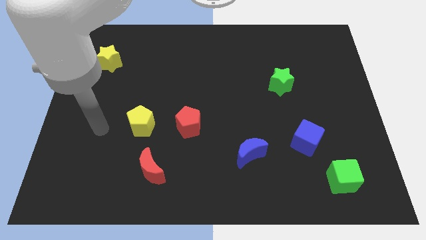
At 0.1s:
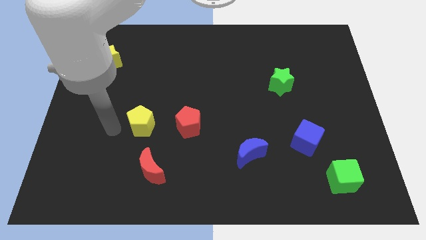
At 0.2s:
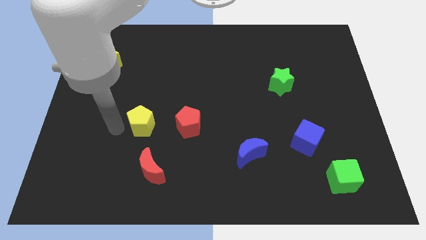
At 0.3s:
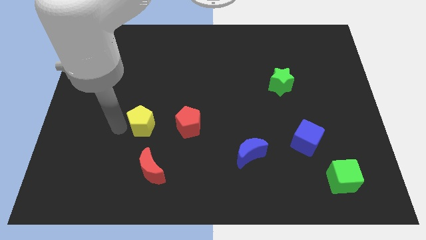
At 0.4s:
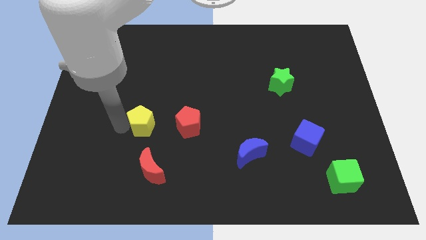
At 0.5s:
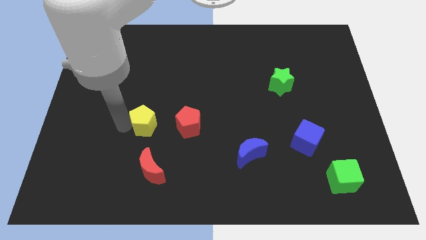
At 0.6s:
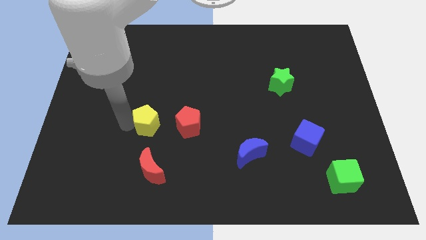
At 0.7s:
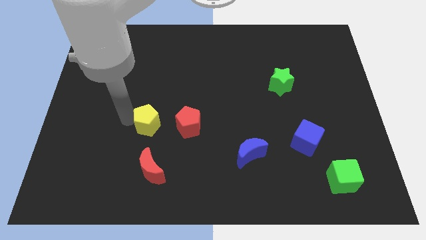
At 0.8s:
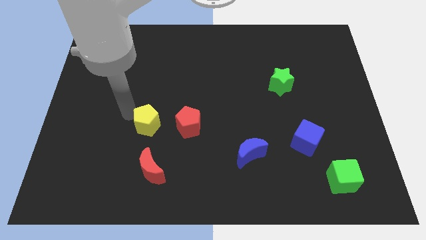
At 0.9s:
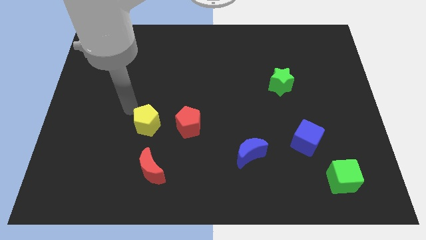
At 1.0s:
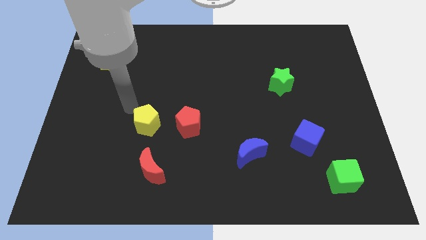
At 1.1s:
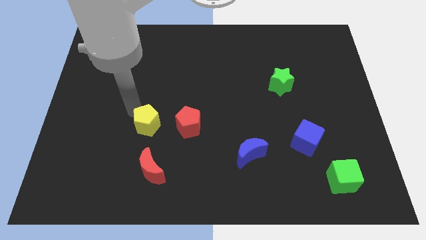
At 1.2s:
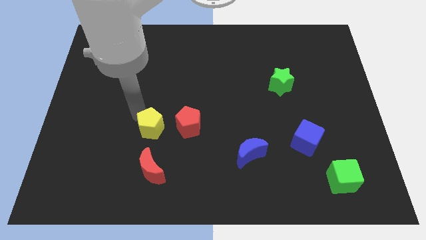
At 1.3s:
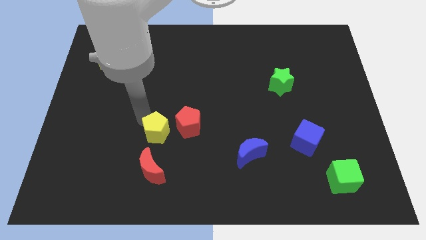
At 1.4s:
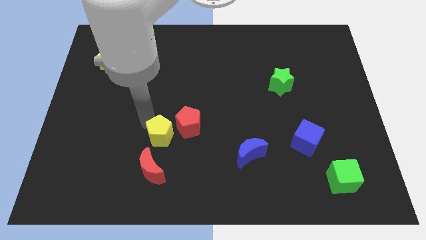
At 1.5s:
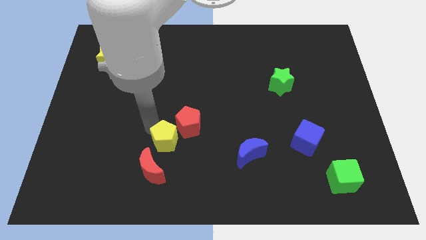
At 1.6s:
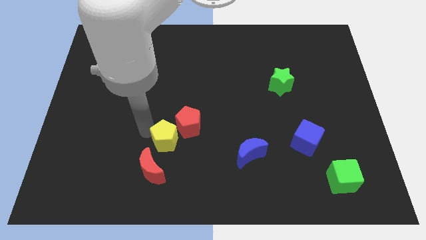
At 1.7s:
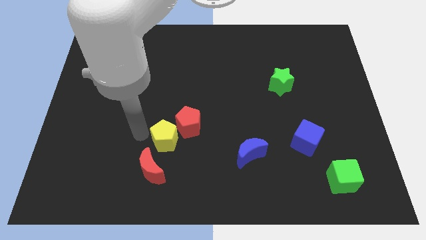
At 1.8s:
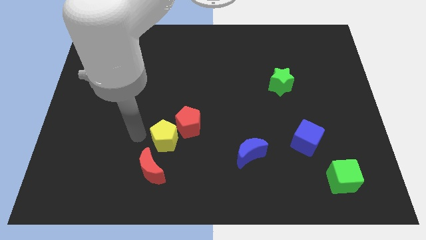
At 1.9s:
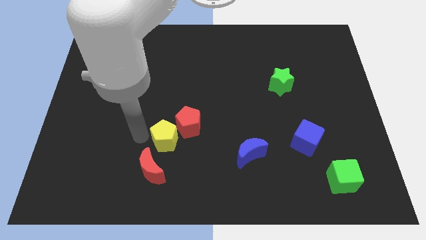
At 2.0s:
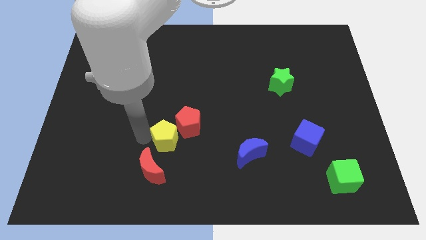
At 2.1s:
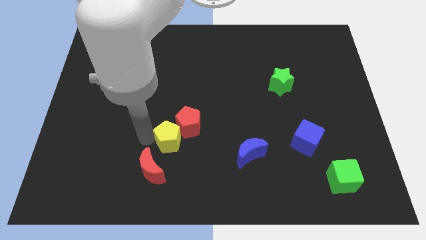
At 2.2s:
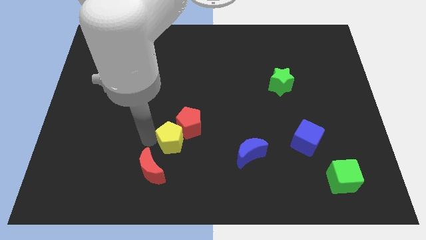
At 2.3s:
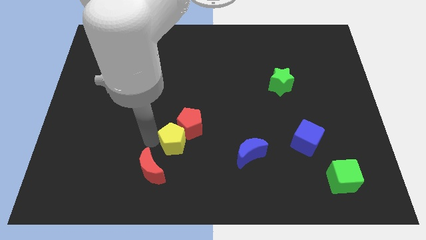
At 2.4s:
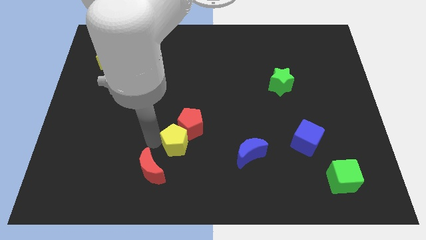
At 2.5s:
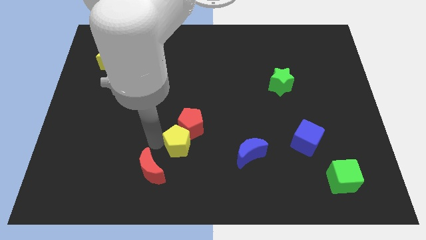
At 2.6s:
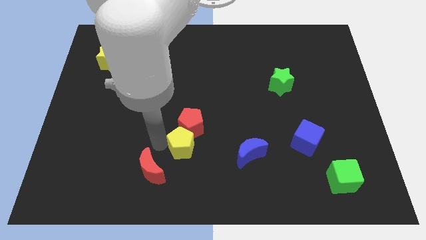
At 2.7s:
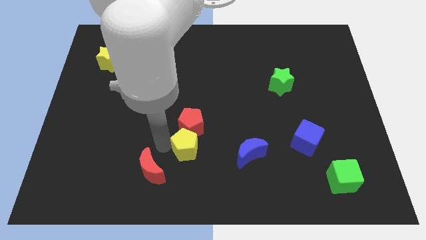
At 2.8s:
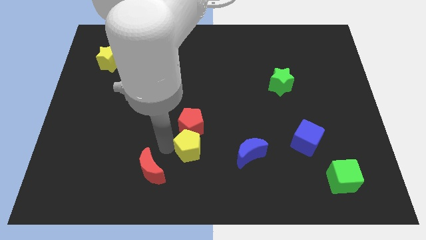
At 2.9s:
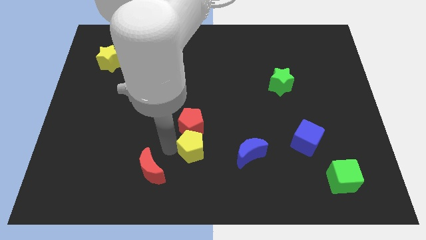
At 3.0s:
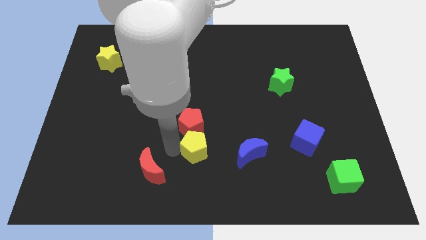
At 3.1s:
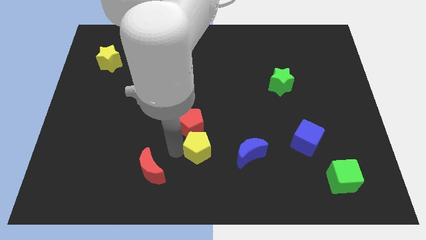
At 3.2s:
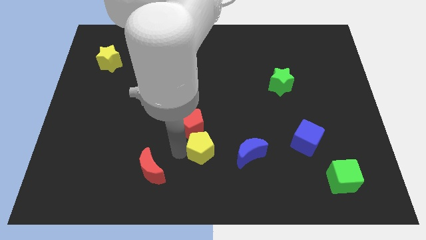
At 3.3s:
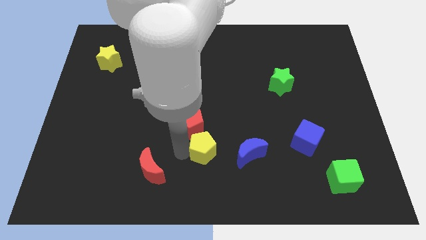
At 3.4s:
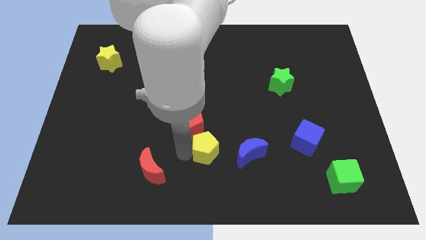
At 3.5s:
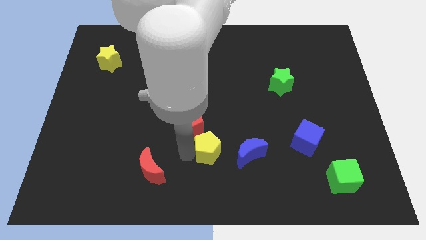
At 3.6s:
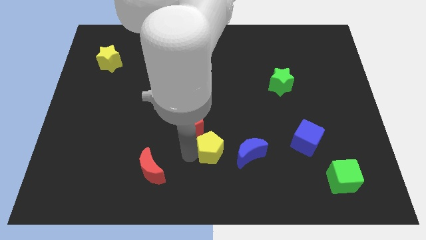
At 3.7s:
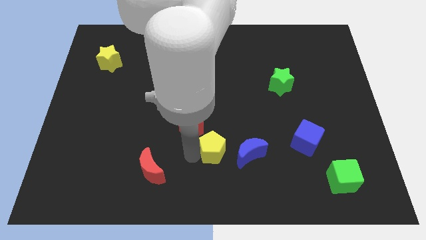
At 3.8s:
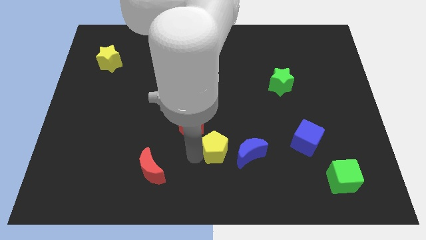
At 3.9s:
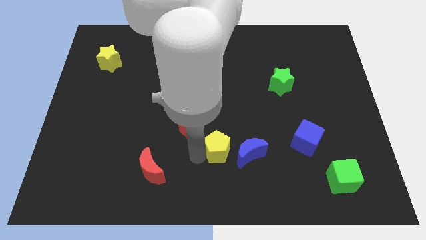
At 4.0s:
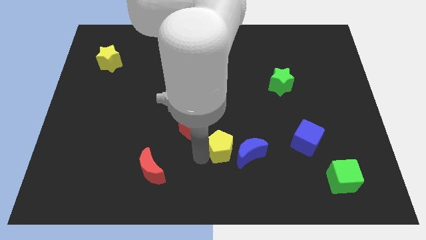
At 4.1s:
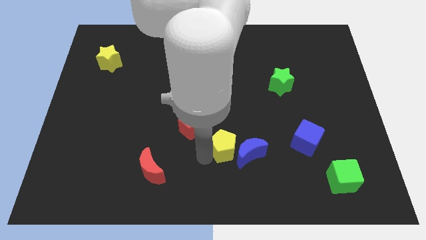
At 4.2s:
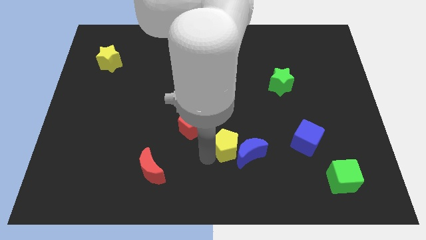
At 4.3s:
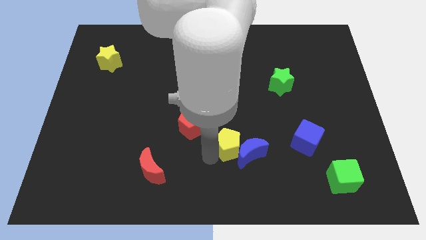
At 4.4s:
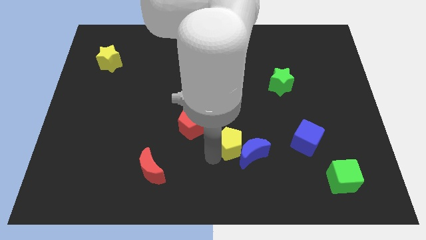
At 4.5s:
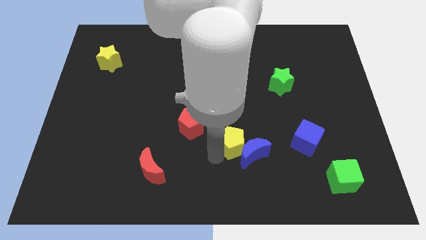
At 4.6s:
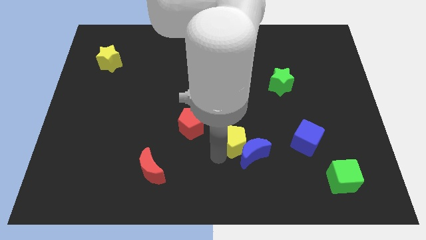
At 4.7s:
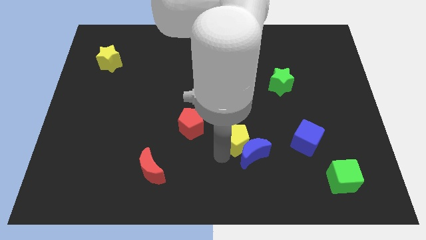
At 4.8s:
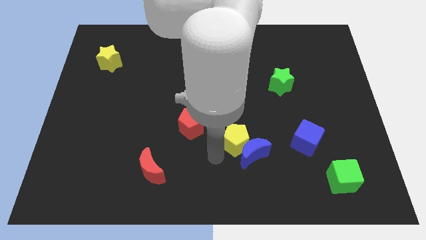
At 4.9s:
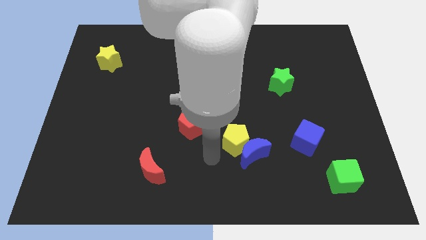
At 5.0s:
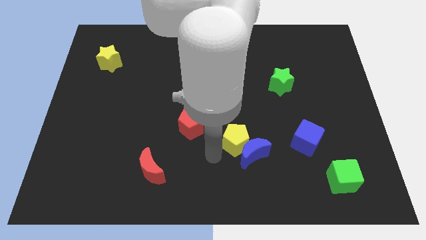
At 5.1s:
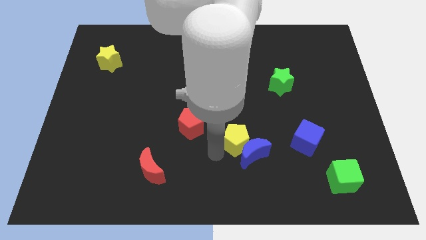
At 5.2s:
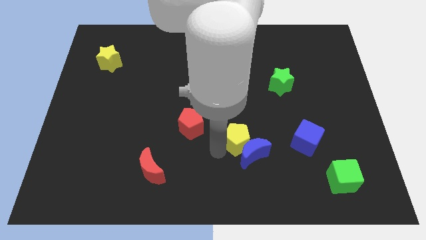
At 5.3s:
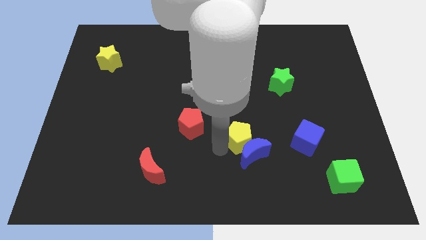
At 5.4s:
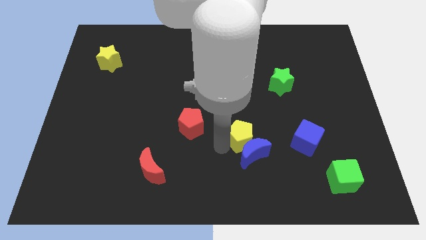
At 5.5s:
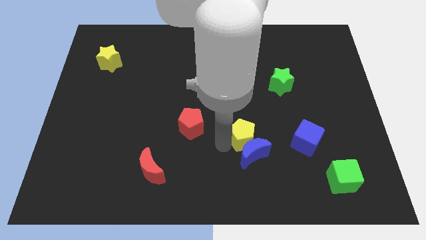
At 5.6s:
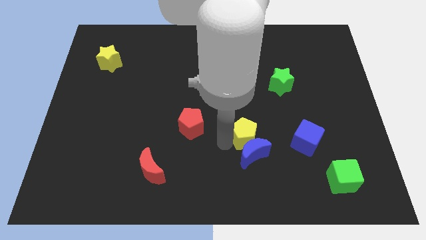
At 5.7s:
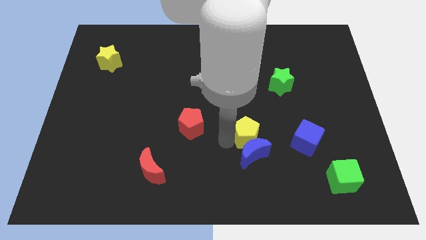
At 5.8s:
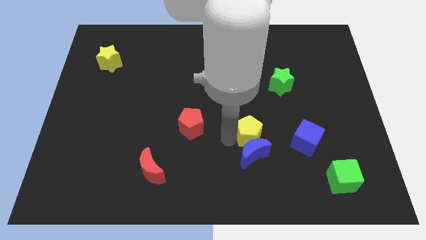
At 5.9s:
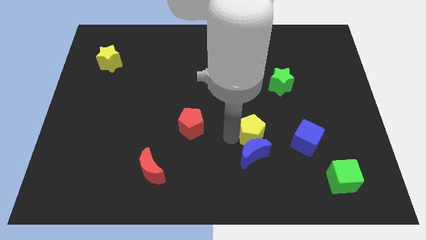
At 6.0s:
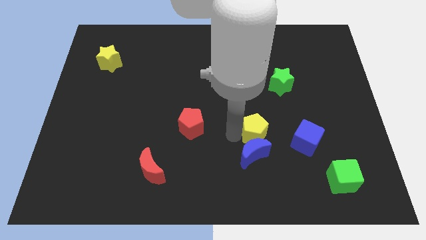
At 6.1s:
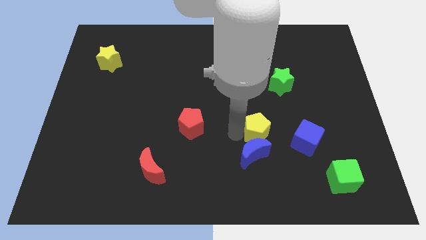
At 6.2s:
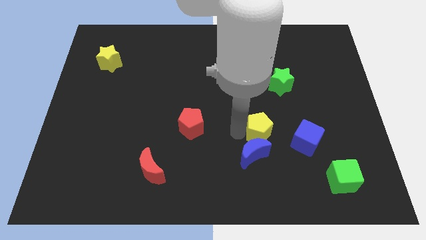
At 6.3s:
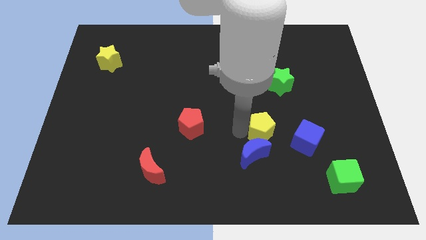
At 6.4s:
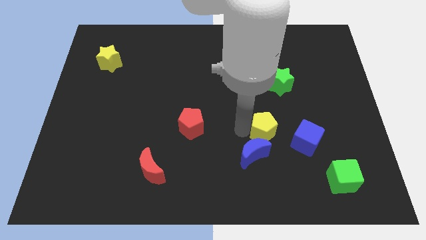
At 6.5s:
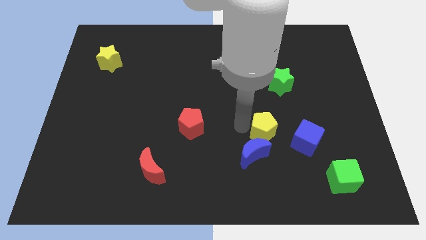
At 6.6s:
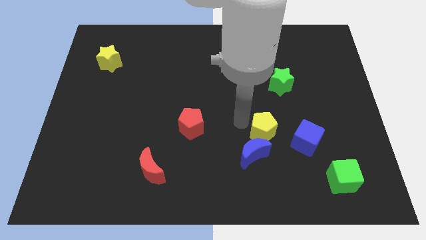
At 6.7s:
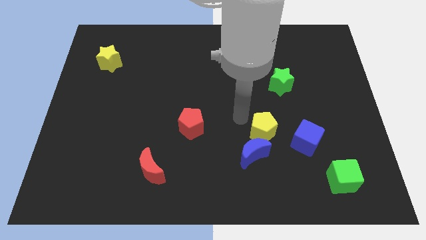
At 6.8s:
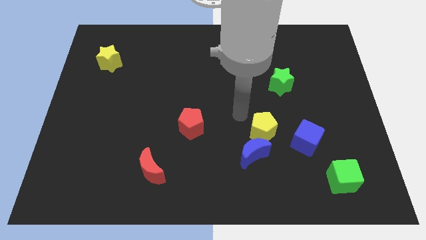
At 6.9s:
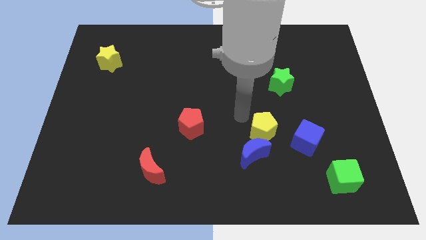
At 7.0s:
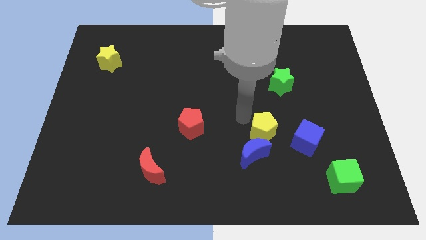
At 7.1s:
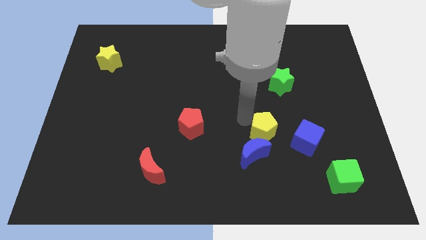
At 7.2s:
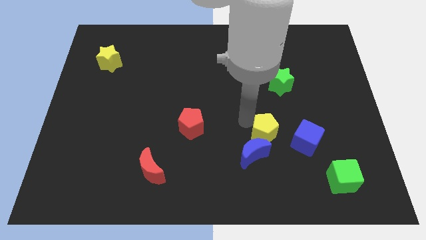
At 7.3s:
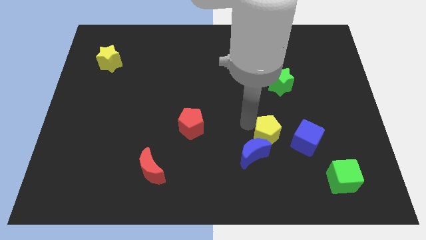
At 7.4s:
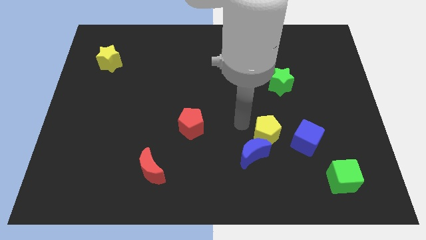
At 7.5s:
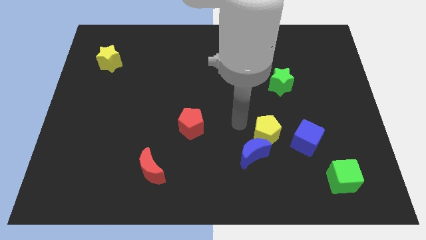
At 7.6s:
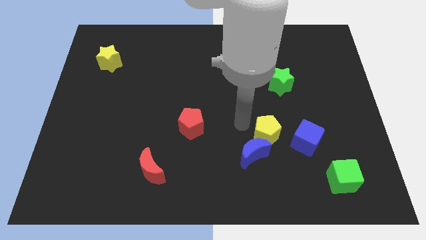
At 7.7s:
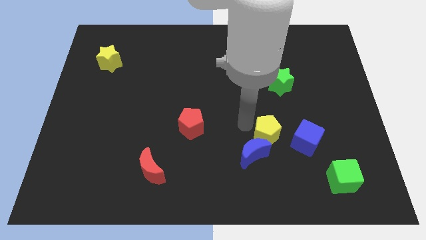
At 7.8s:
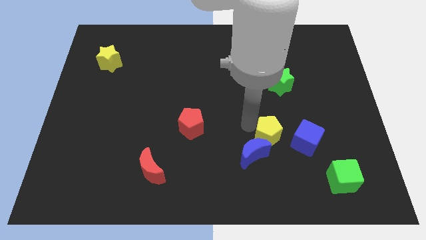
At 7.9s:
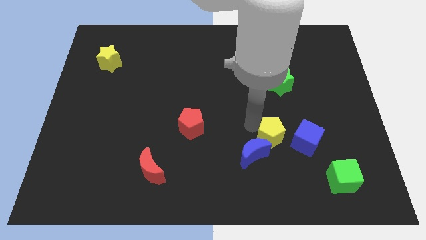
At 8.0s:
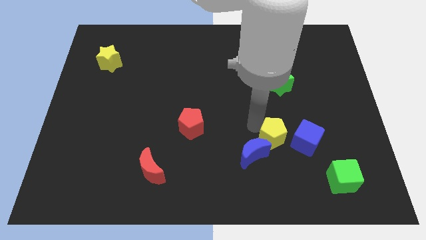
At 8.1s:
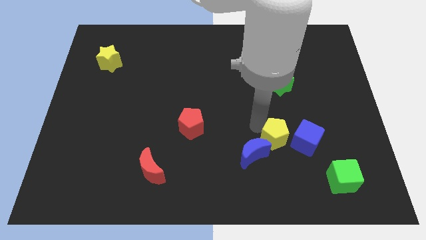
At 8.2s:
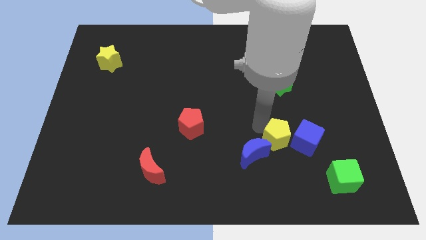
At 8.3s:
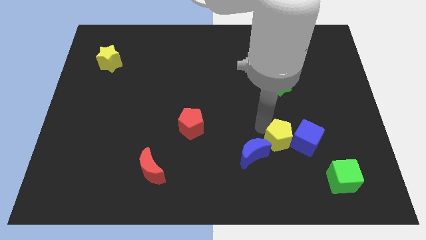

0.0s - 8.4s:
move the yellow pentagon towards the blue cube
